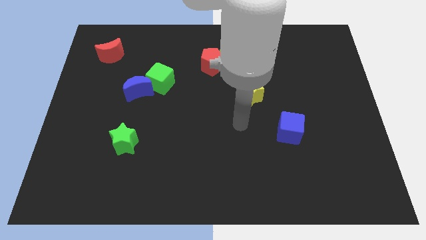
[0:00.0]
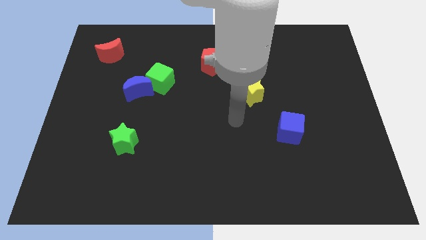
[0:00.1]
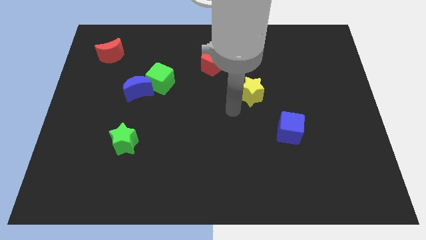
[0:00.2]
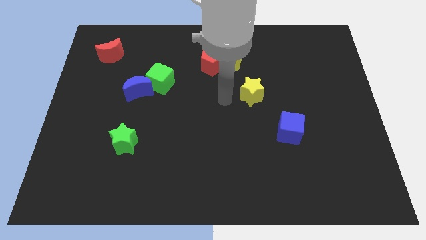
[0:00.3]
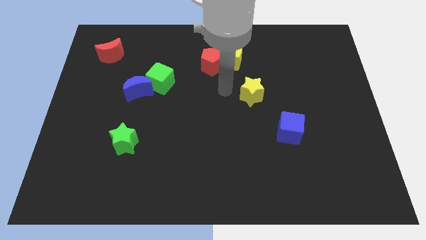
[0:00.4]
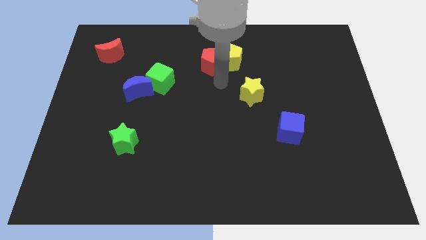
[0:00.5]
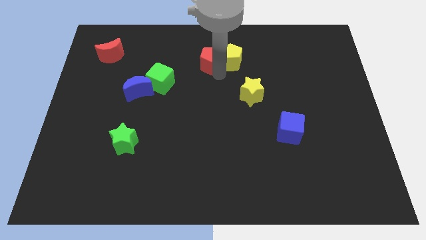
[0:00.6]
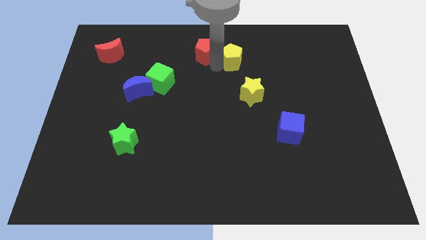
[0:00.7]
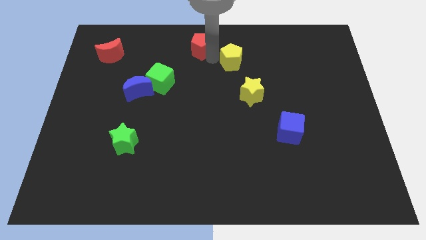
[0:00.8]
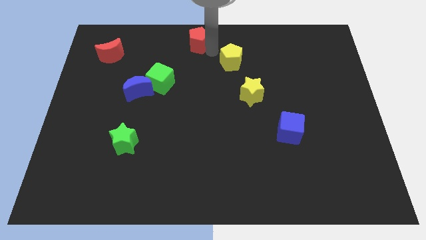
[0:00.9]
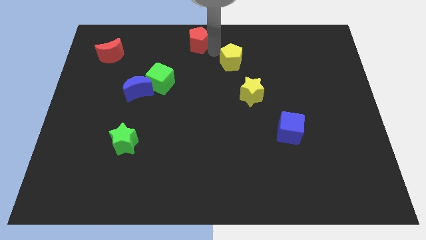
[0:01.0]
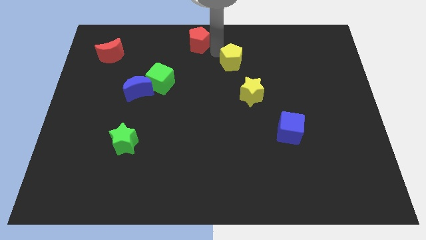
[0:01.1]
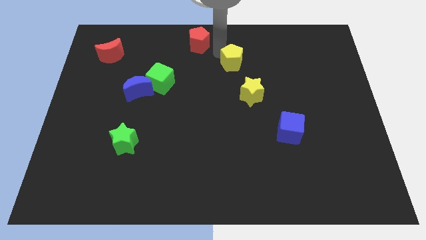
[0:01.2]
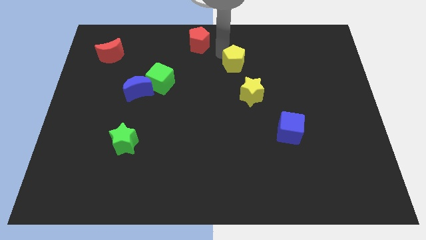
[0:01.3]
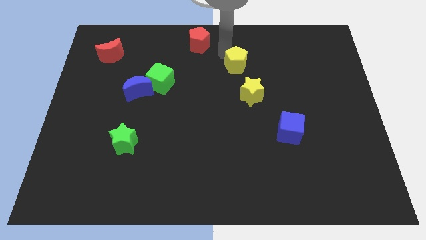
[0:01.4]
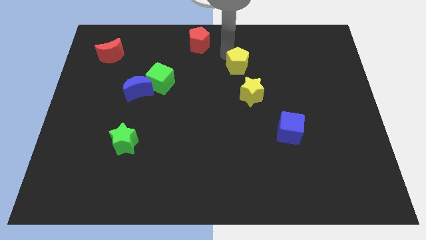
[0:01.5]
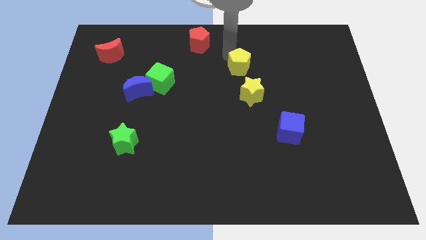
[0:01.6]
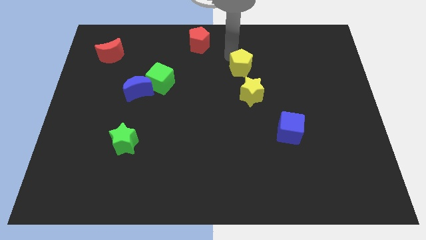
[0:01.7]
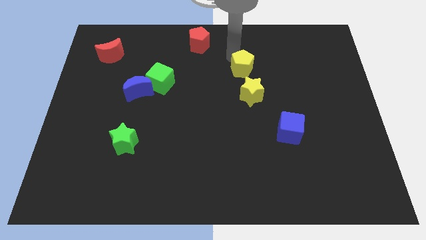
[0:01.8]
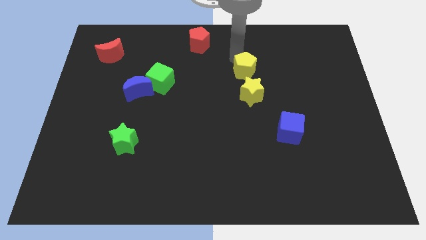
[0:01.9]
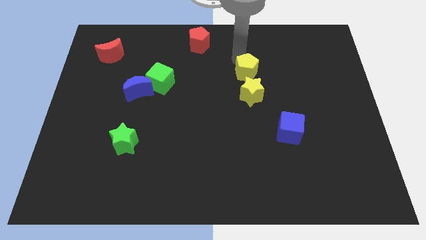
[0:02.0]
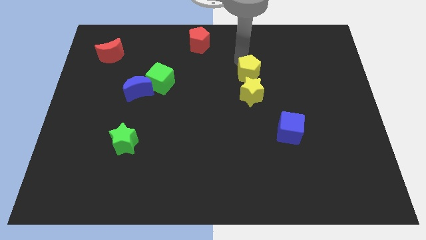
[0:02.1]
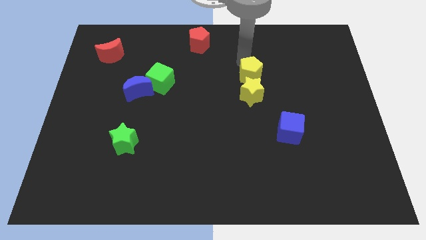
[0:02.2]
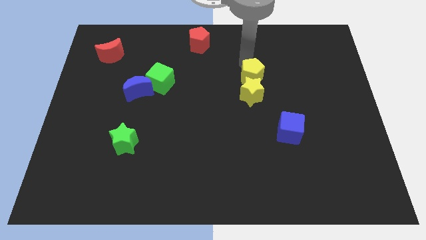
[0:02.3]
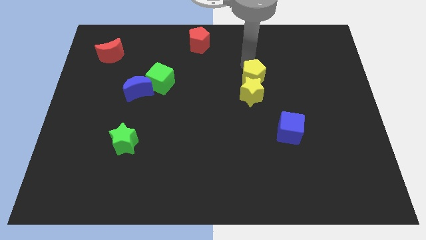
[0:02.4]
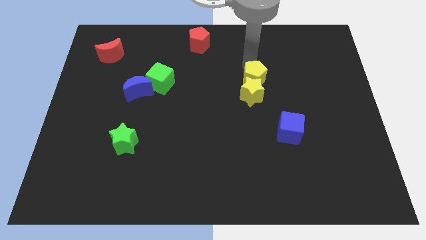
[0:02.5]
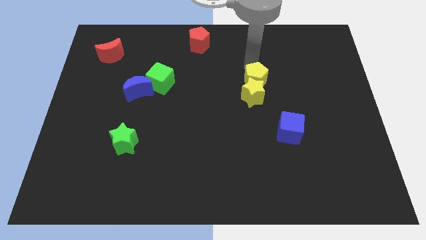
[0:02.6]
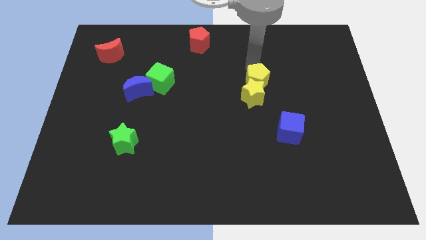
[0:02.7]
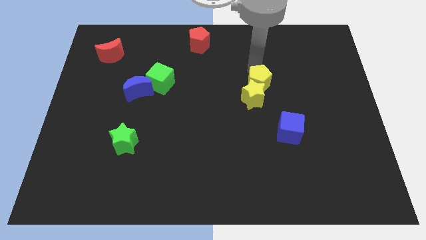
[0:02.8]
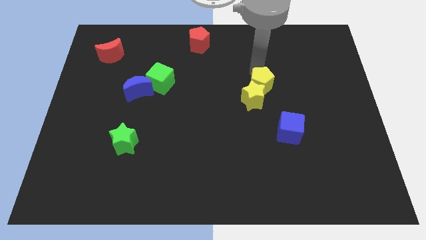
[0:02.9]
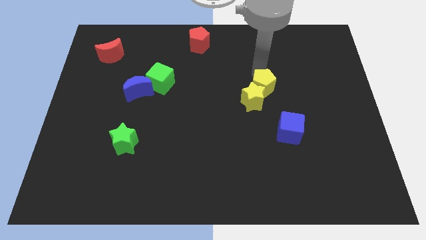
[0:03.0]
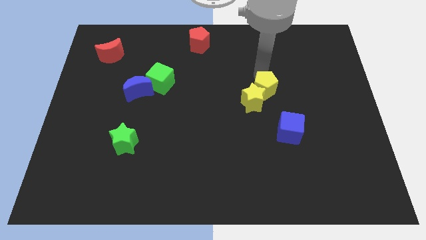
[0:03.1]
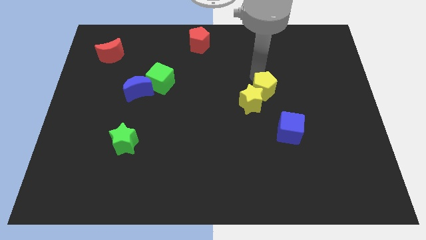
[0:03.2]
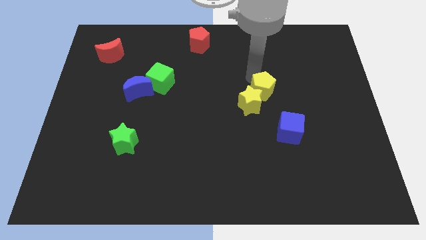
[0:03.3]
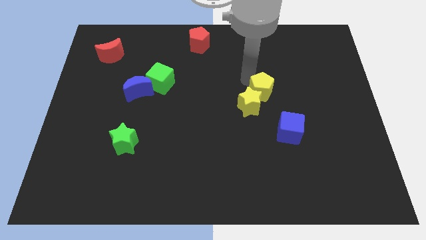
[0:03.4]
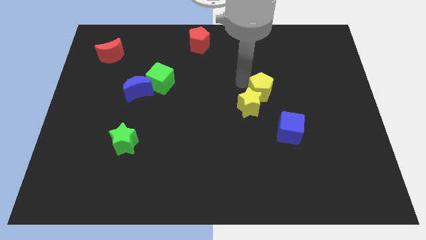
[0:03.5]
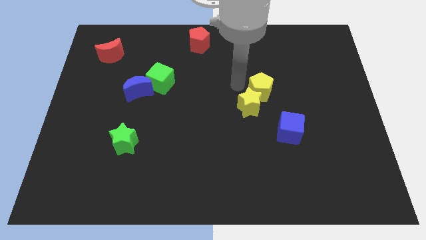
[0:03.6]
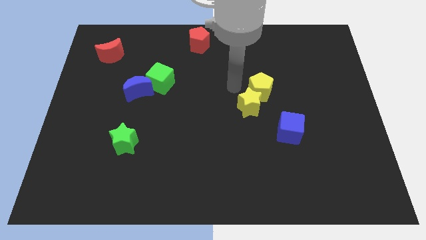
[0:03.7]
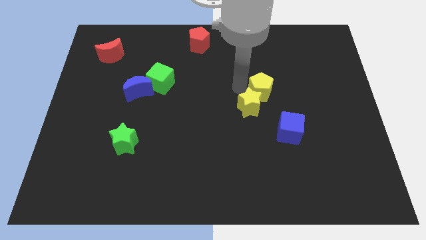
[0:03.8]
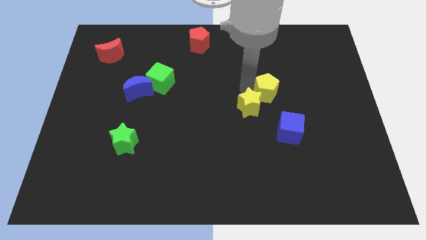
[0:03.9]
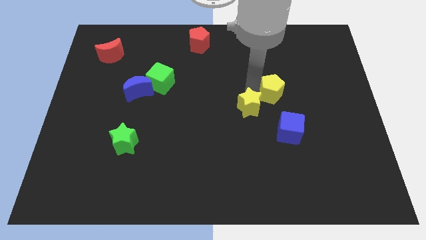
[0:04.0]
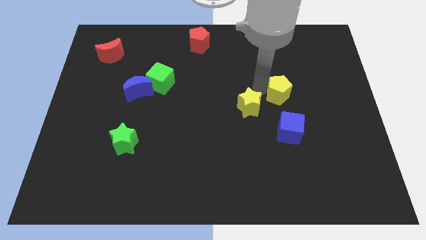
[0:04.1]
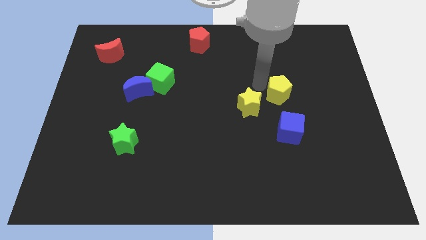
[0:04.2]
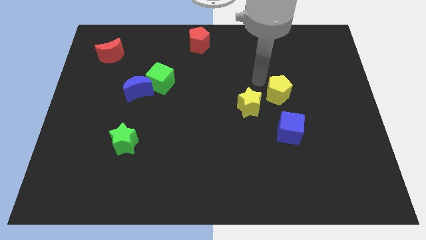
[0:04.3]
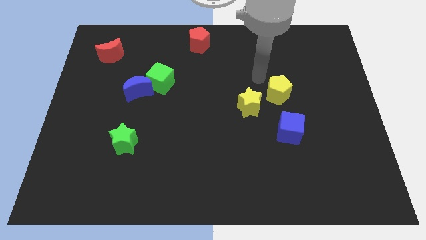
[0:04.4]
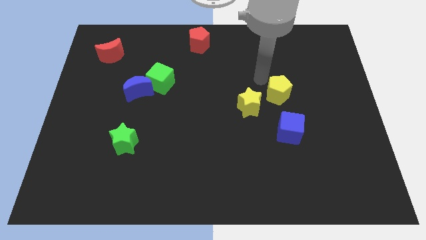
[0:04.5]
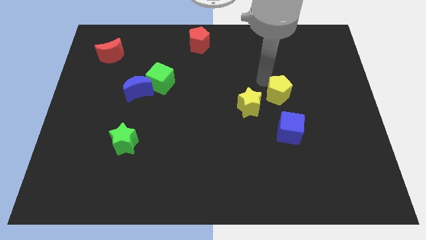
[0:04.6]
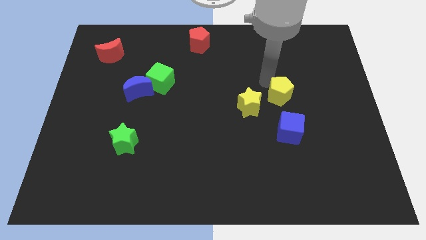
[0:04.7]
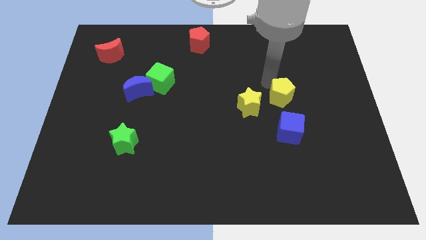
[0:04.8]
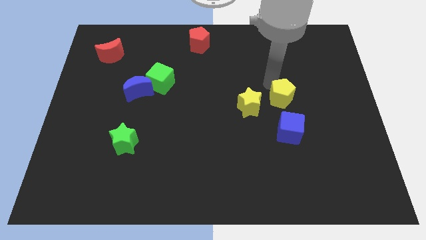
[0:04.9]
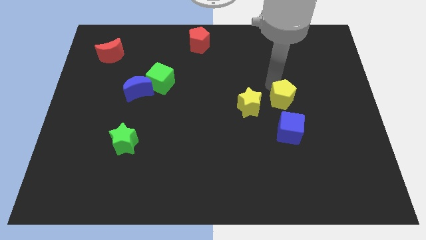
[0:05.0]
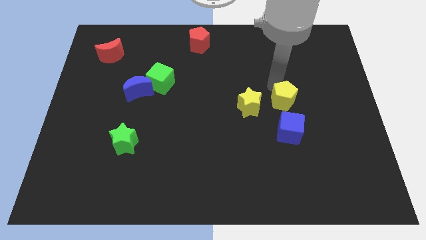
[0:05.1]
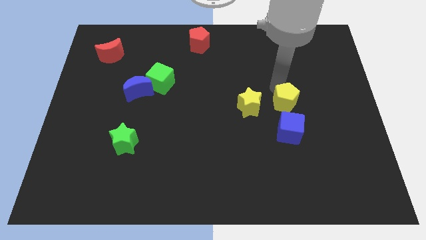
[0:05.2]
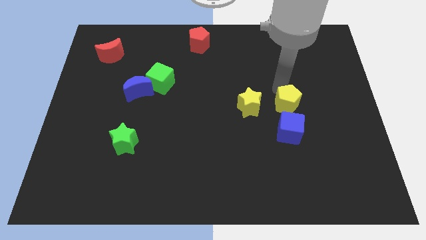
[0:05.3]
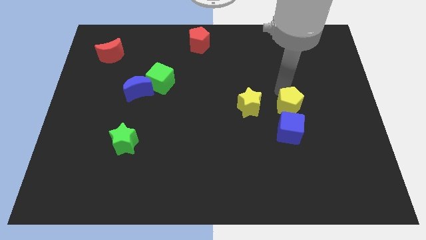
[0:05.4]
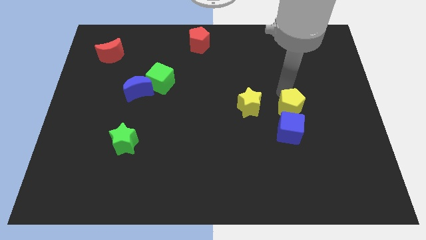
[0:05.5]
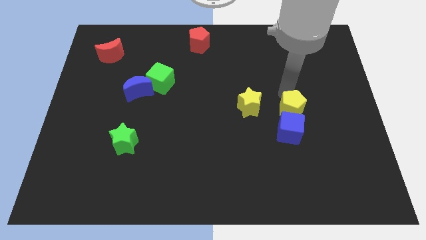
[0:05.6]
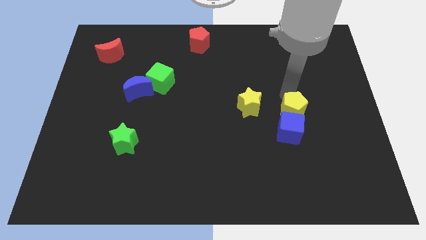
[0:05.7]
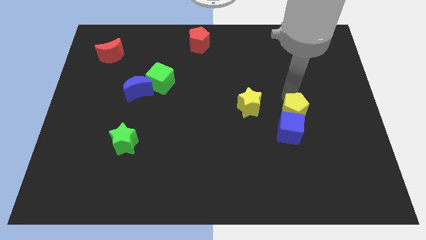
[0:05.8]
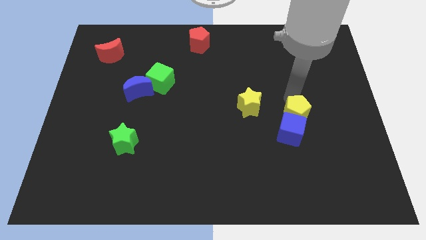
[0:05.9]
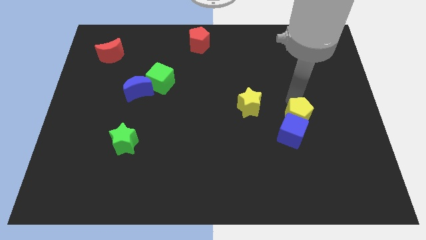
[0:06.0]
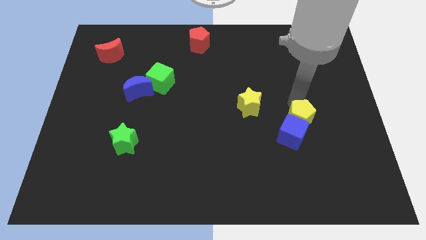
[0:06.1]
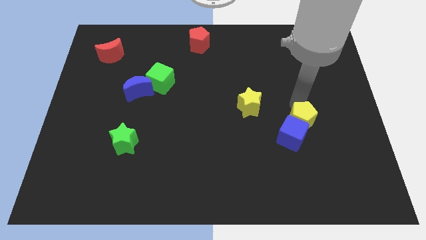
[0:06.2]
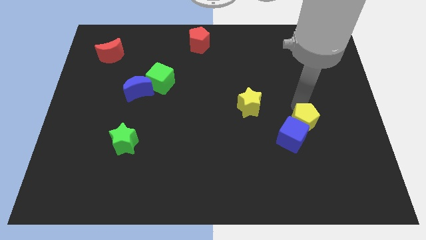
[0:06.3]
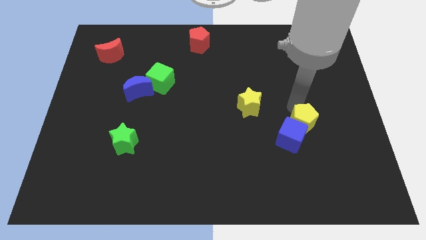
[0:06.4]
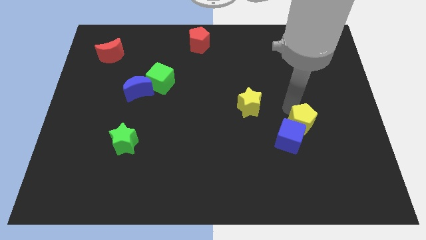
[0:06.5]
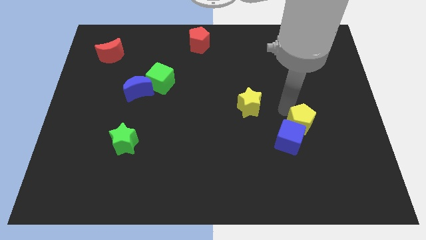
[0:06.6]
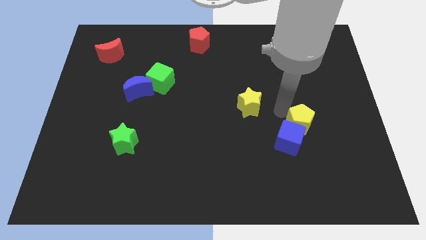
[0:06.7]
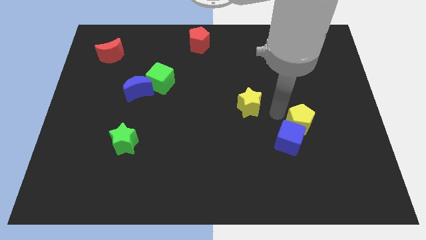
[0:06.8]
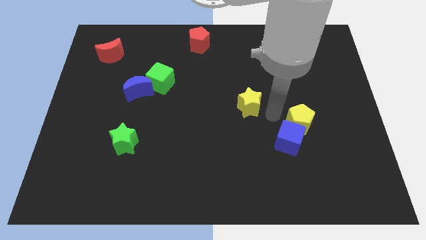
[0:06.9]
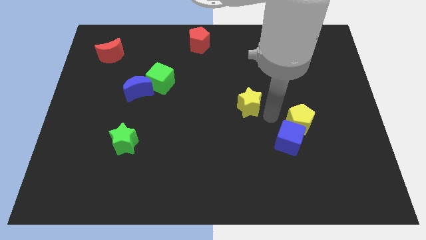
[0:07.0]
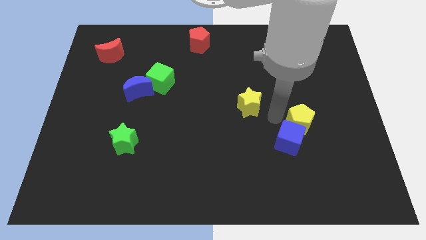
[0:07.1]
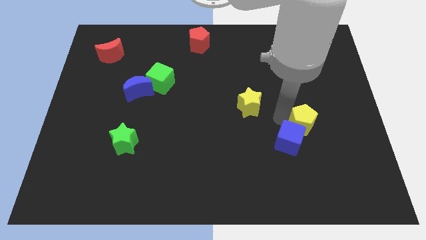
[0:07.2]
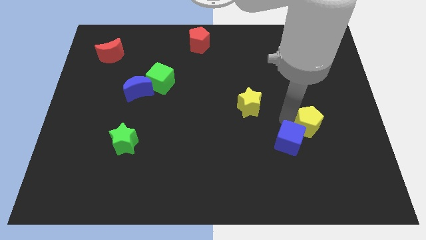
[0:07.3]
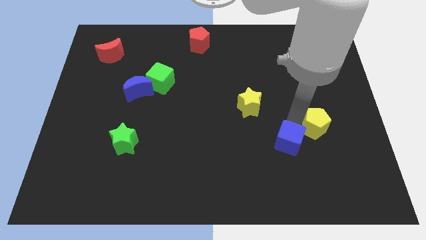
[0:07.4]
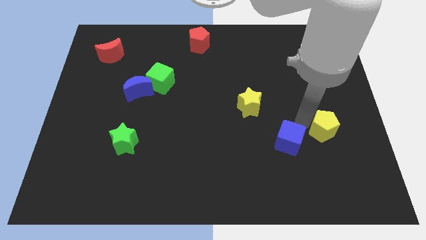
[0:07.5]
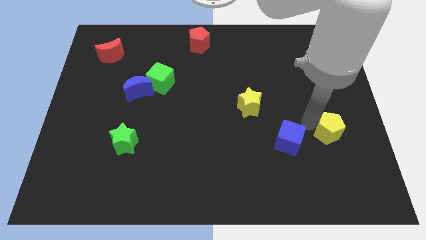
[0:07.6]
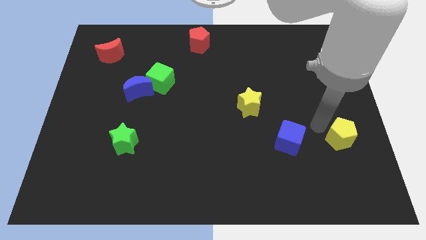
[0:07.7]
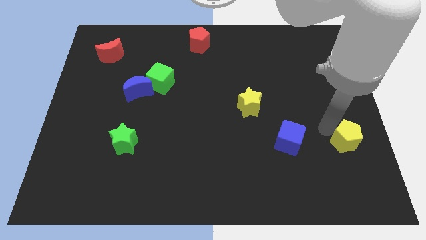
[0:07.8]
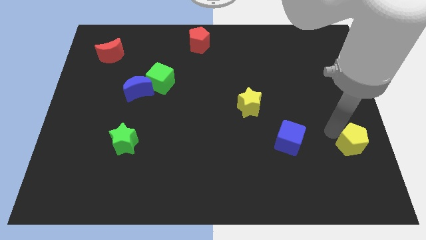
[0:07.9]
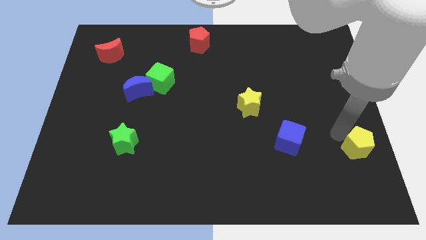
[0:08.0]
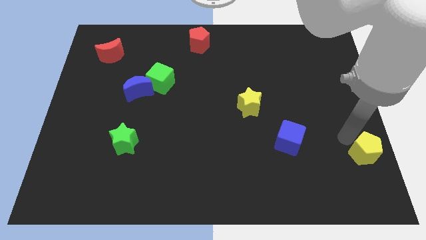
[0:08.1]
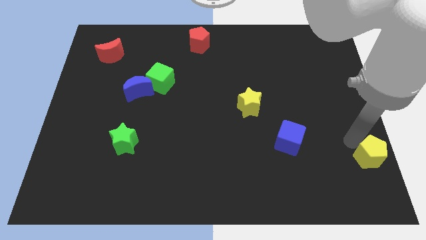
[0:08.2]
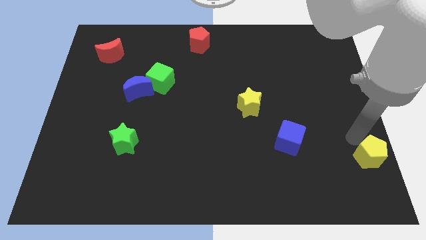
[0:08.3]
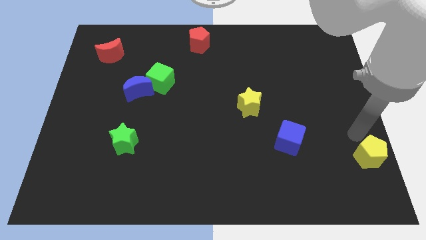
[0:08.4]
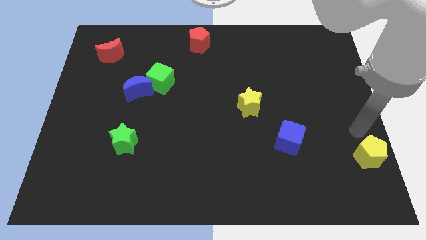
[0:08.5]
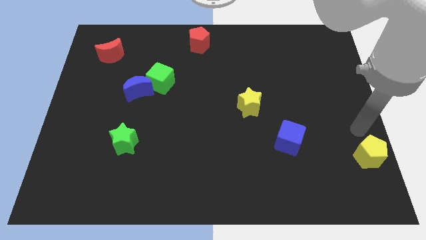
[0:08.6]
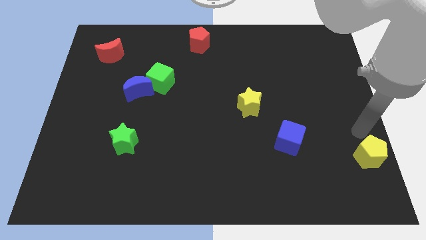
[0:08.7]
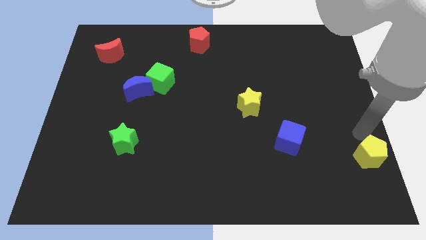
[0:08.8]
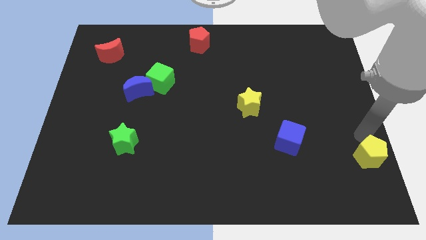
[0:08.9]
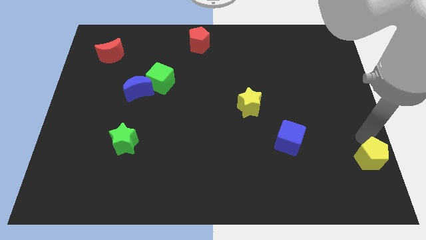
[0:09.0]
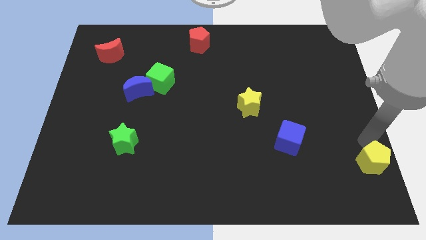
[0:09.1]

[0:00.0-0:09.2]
put the yellow pentagon to the bottom right corner
